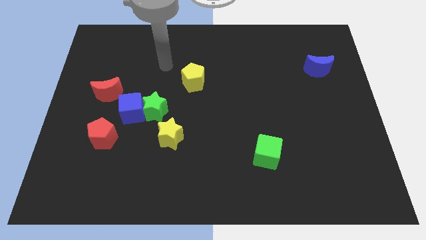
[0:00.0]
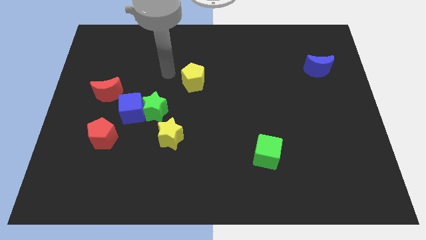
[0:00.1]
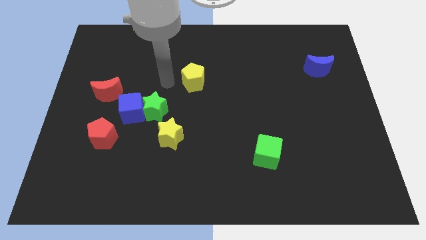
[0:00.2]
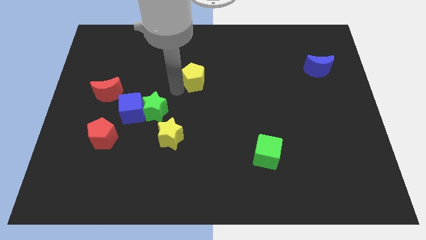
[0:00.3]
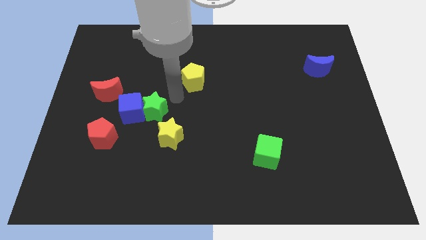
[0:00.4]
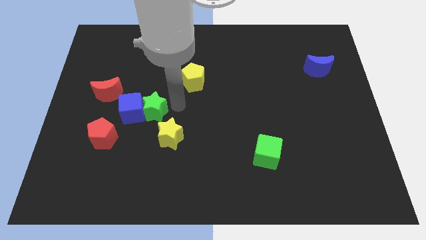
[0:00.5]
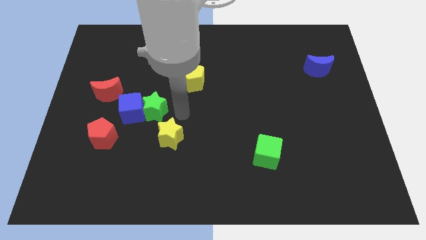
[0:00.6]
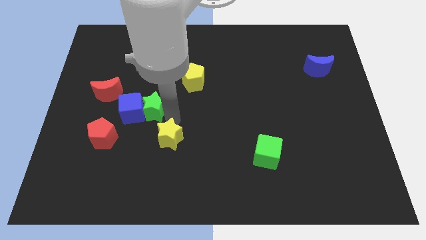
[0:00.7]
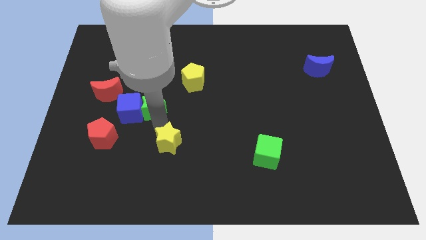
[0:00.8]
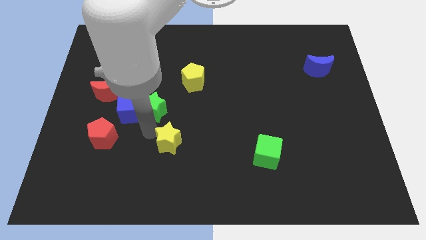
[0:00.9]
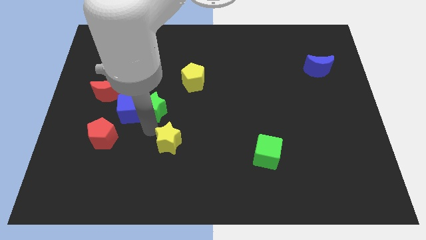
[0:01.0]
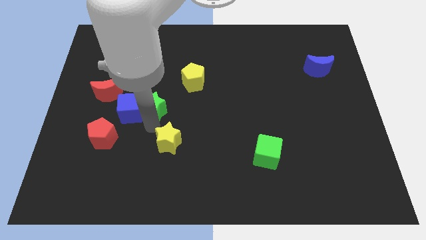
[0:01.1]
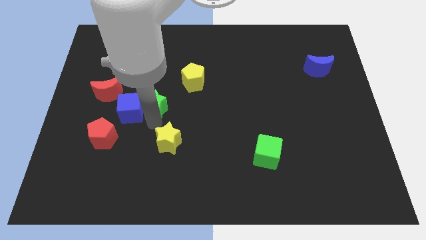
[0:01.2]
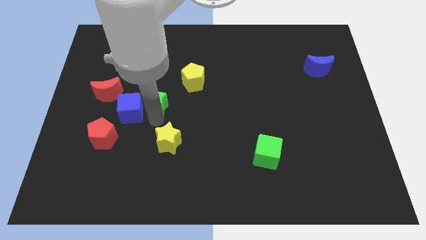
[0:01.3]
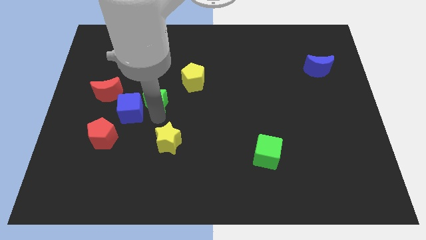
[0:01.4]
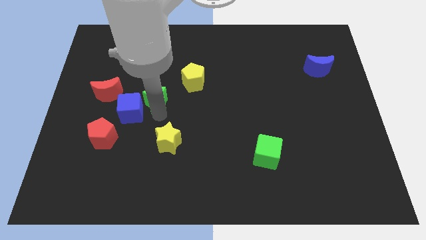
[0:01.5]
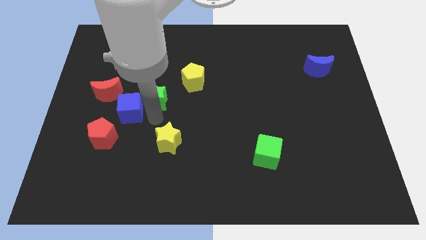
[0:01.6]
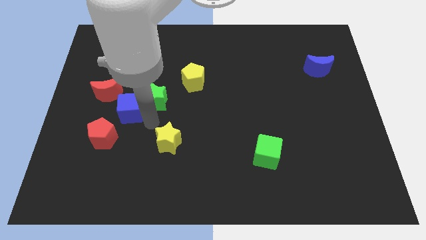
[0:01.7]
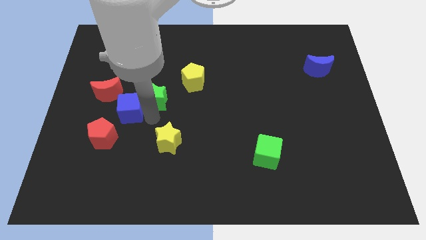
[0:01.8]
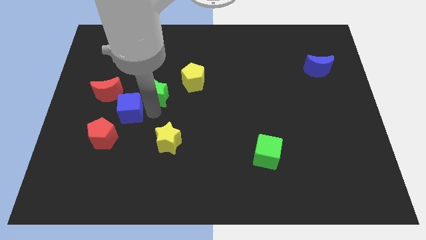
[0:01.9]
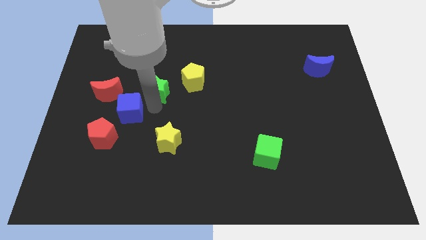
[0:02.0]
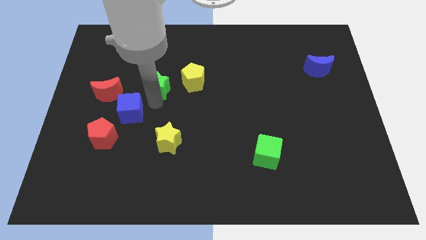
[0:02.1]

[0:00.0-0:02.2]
pull the green star apart from the blue cube and yellow star

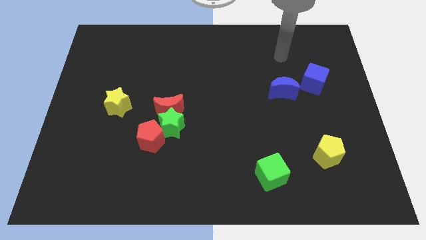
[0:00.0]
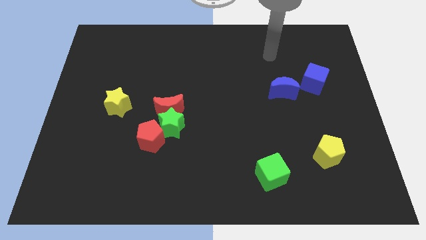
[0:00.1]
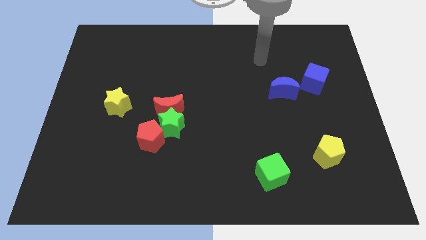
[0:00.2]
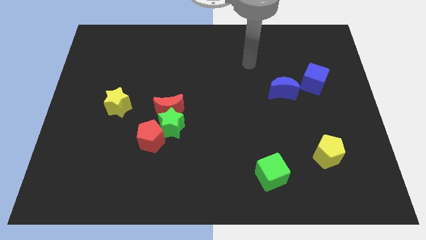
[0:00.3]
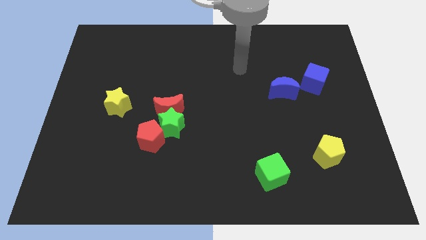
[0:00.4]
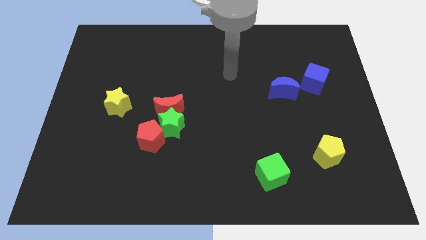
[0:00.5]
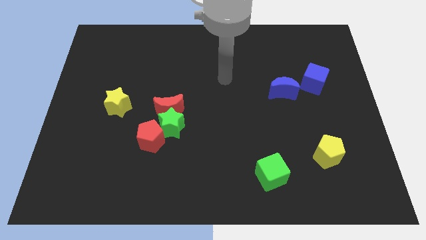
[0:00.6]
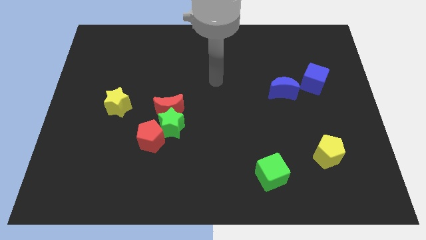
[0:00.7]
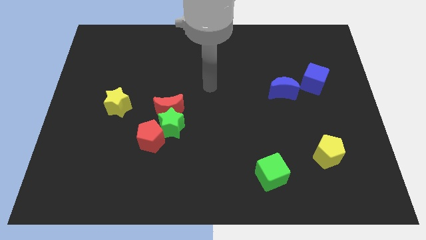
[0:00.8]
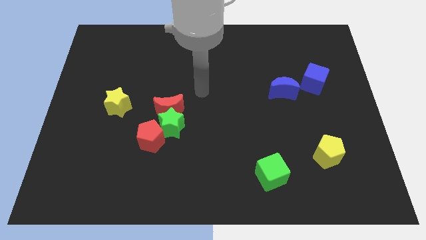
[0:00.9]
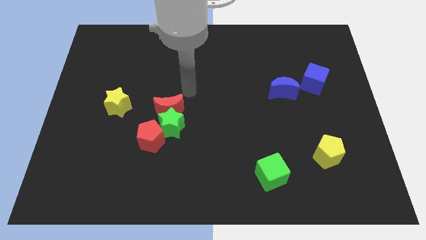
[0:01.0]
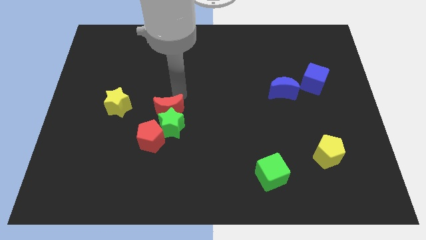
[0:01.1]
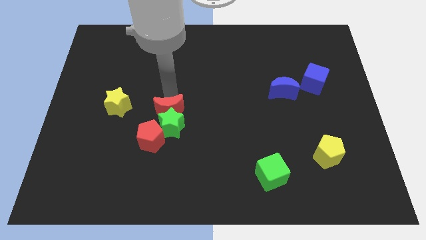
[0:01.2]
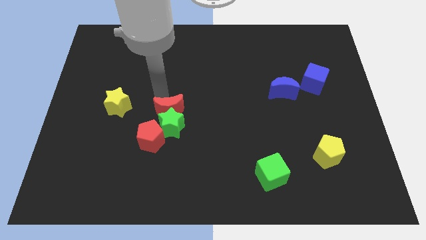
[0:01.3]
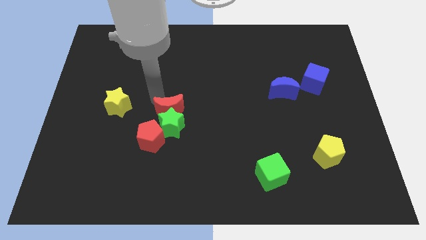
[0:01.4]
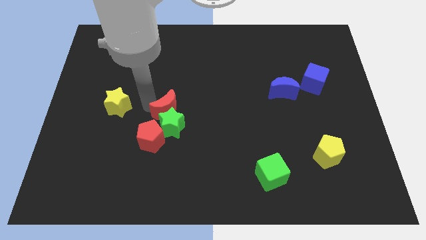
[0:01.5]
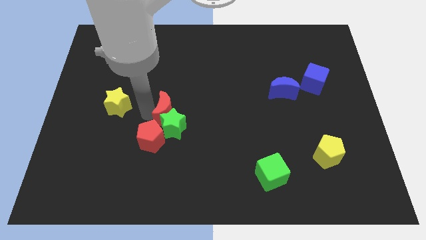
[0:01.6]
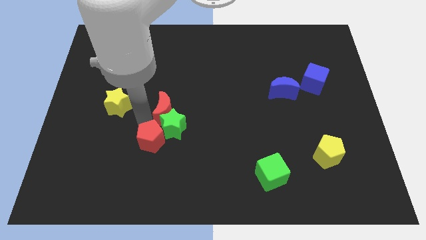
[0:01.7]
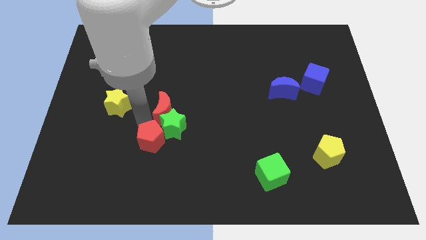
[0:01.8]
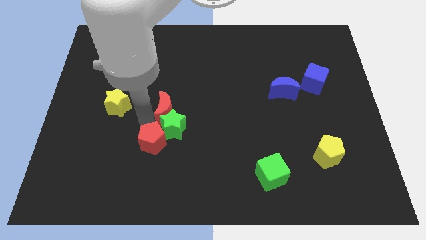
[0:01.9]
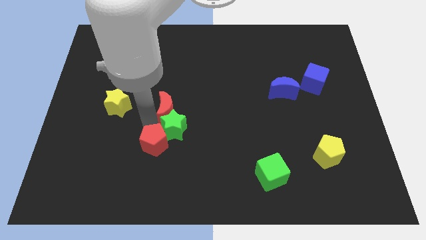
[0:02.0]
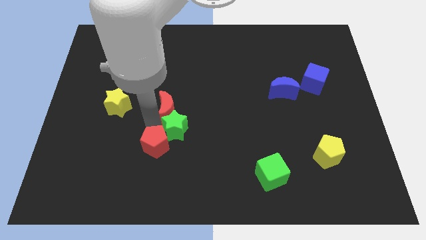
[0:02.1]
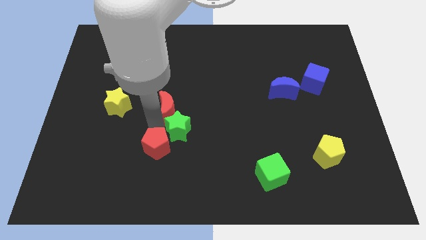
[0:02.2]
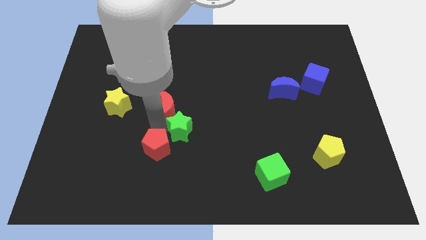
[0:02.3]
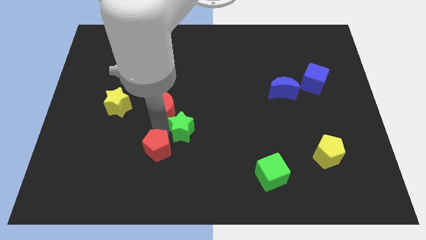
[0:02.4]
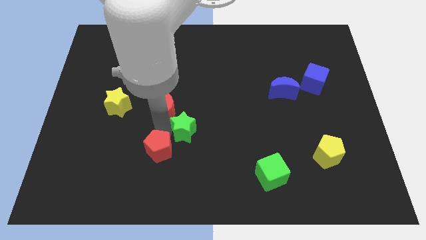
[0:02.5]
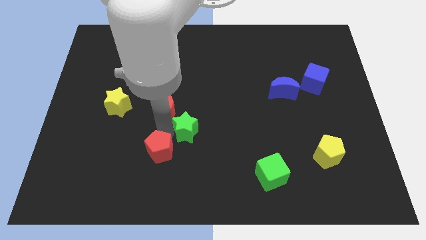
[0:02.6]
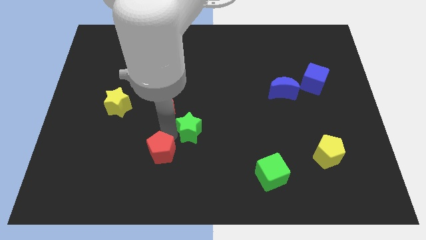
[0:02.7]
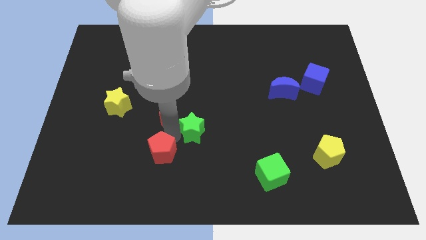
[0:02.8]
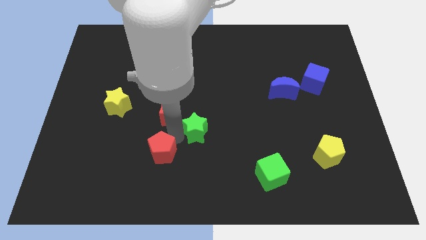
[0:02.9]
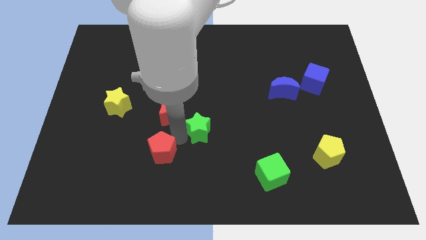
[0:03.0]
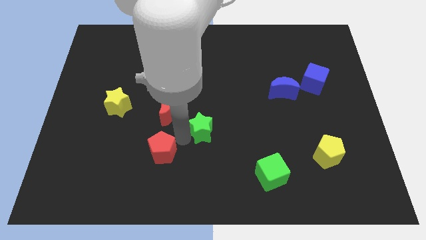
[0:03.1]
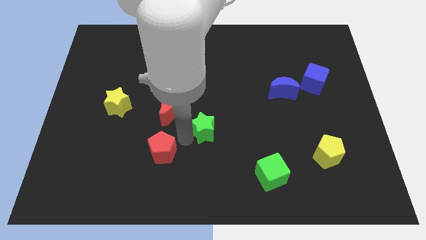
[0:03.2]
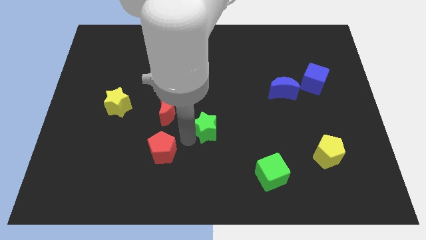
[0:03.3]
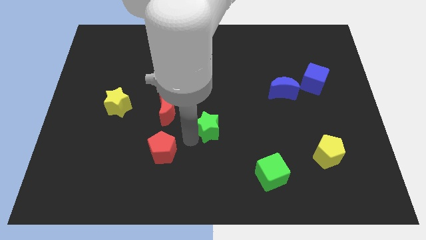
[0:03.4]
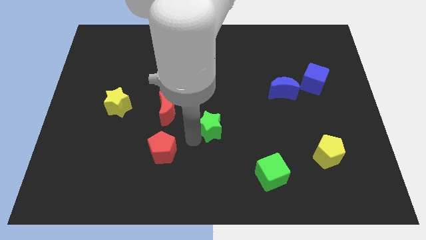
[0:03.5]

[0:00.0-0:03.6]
pull the green star apart from the red moon and red pentagon

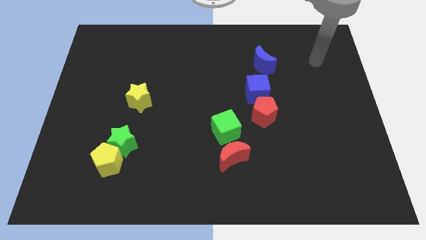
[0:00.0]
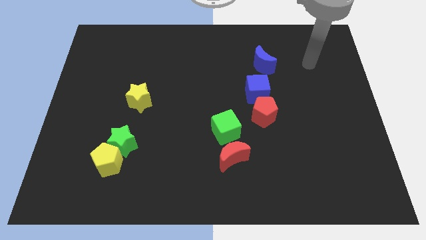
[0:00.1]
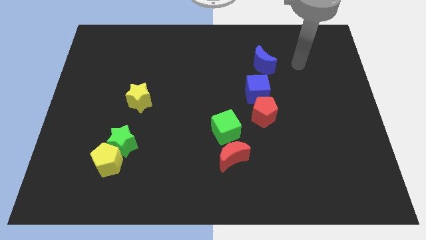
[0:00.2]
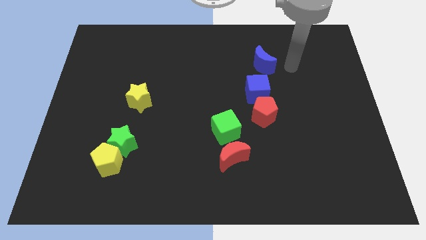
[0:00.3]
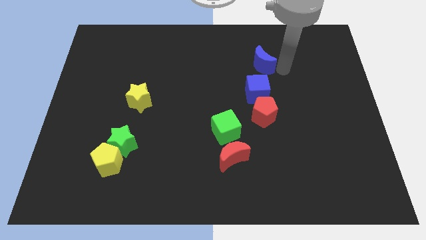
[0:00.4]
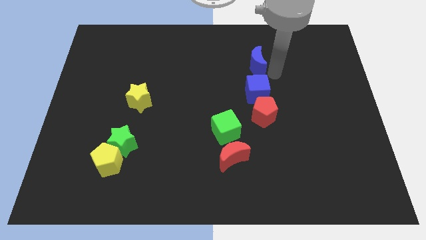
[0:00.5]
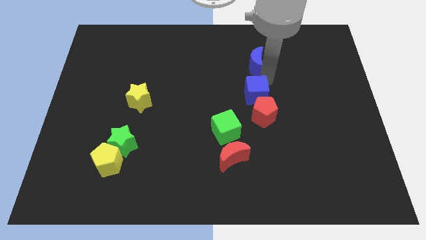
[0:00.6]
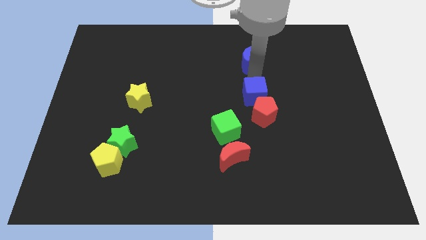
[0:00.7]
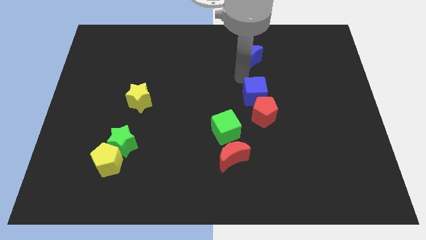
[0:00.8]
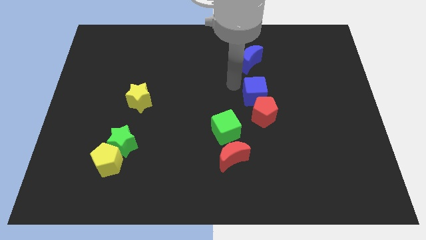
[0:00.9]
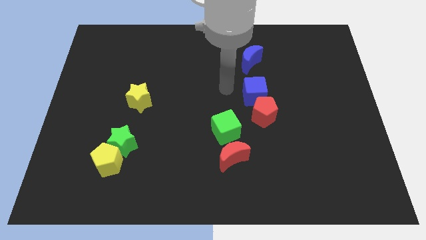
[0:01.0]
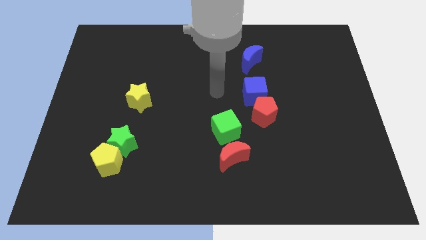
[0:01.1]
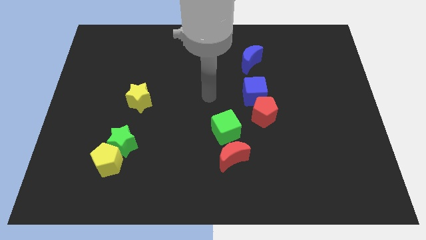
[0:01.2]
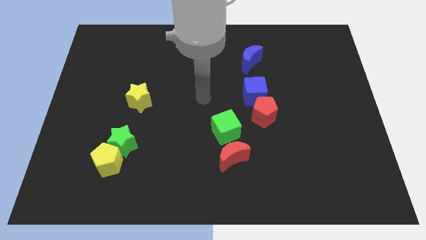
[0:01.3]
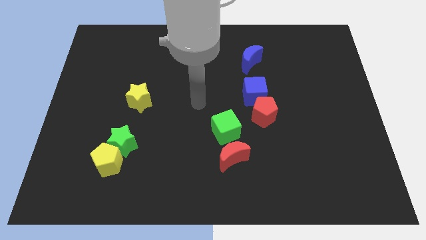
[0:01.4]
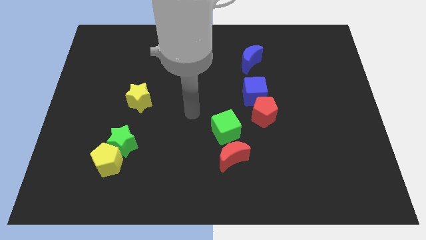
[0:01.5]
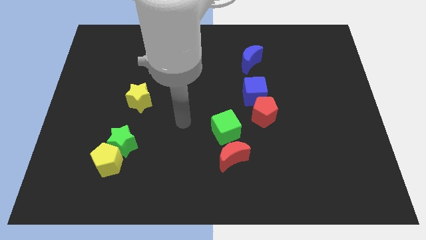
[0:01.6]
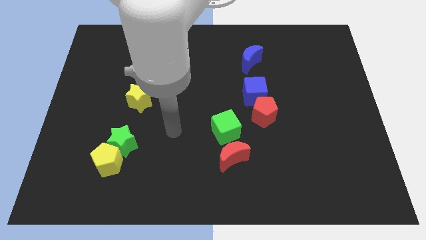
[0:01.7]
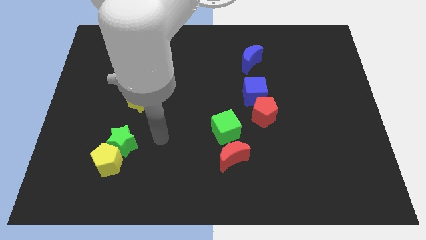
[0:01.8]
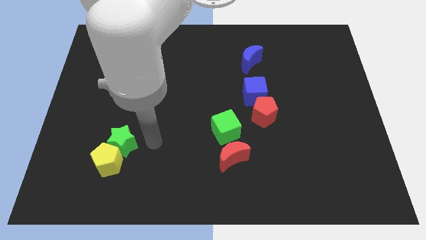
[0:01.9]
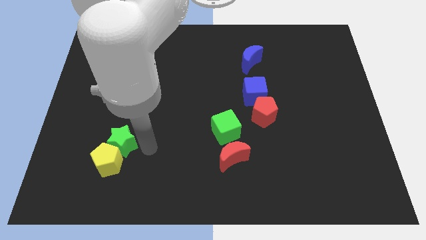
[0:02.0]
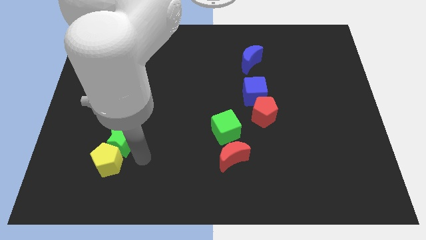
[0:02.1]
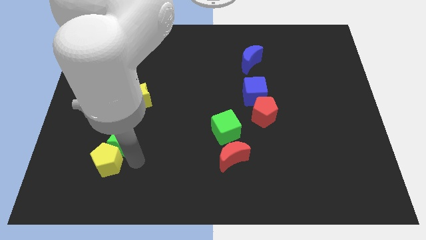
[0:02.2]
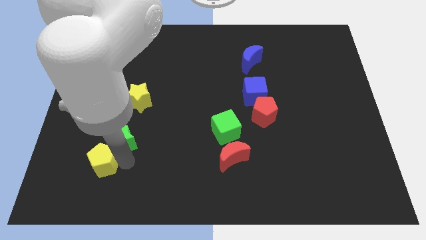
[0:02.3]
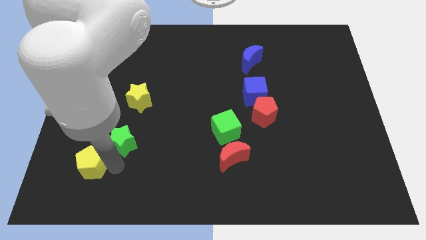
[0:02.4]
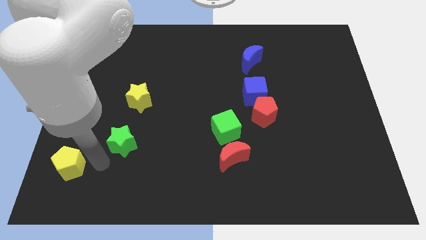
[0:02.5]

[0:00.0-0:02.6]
pull the green star apart from the yellow pentagon

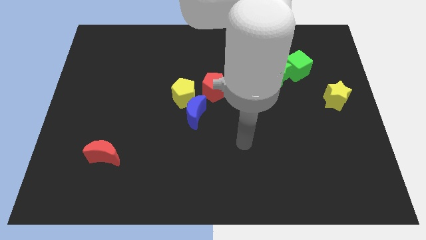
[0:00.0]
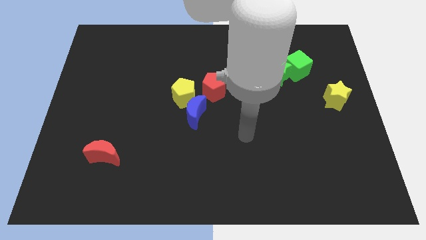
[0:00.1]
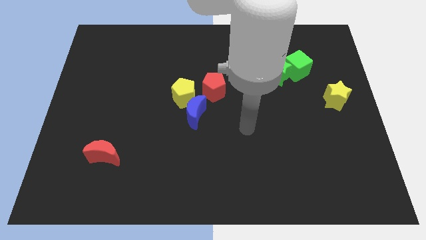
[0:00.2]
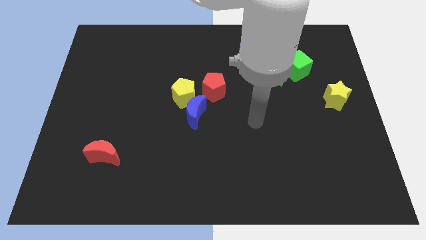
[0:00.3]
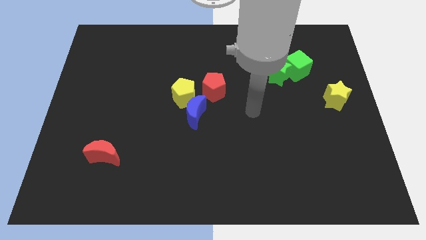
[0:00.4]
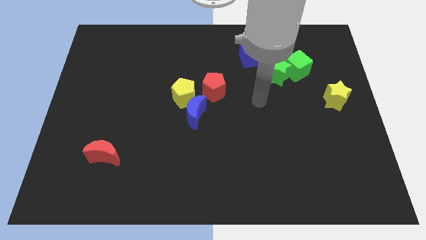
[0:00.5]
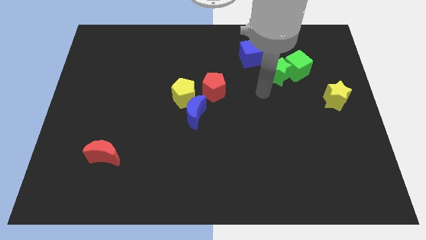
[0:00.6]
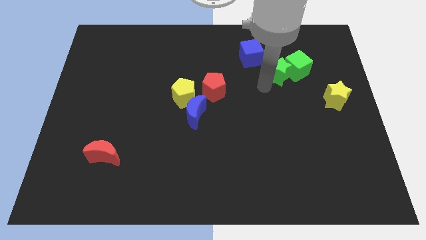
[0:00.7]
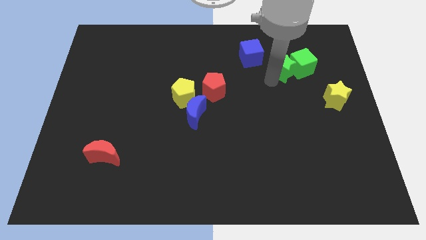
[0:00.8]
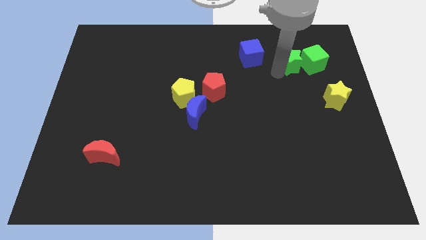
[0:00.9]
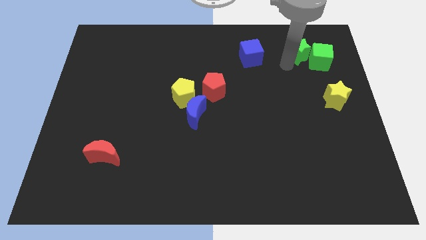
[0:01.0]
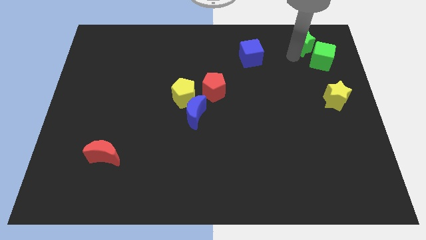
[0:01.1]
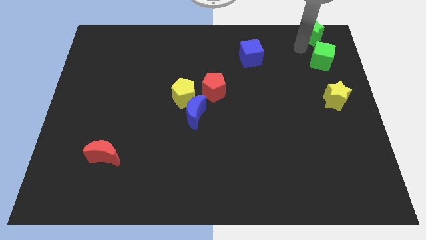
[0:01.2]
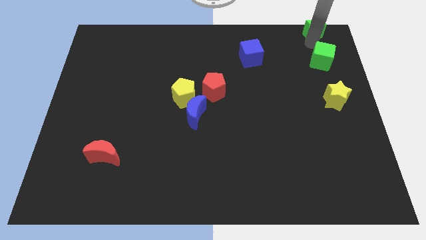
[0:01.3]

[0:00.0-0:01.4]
separate the green cube from the green star
